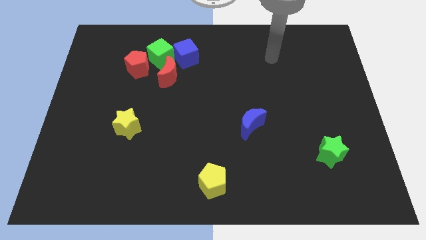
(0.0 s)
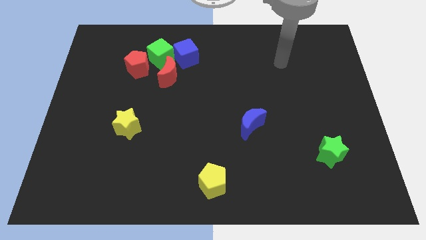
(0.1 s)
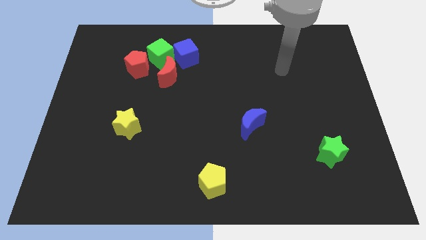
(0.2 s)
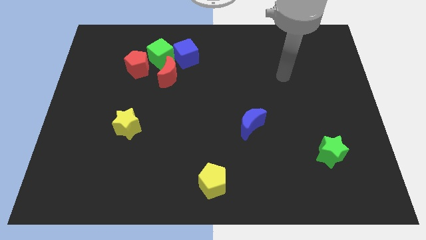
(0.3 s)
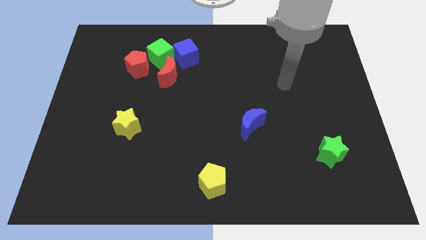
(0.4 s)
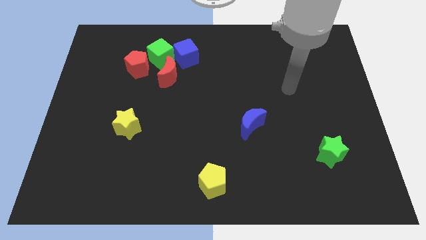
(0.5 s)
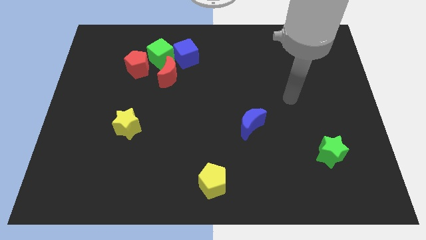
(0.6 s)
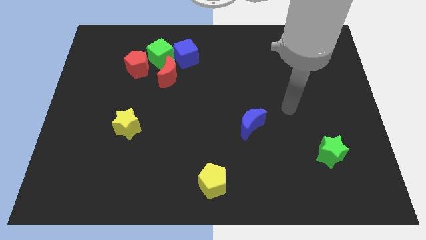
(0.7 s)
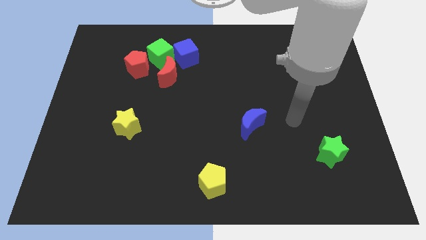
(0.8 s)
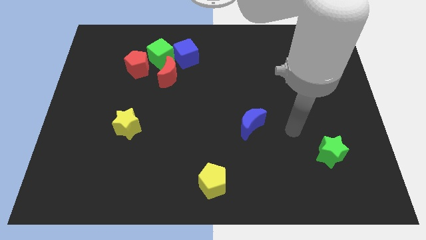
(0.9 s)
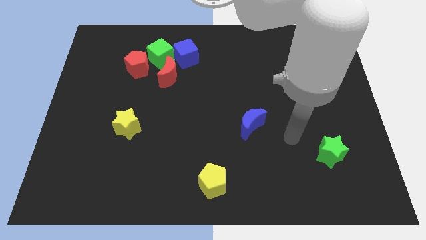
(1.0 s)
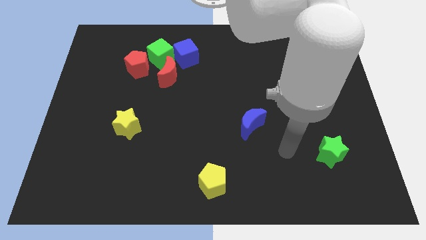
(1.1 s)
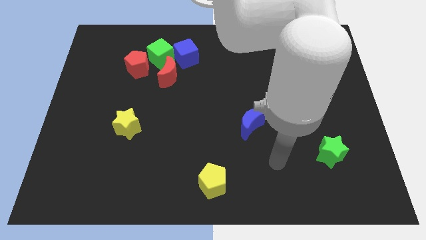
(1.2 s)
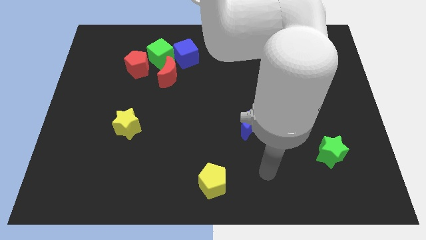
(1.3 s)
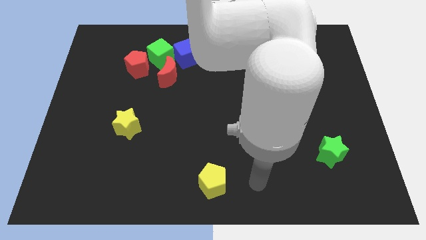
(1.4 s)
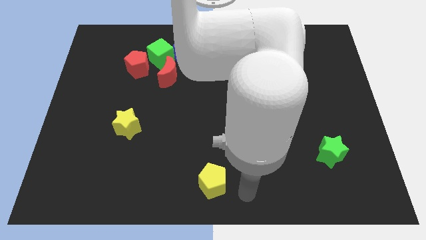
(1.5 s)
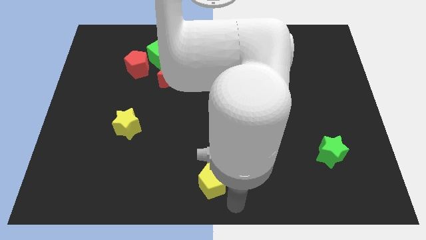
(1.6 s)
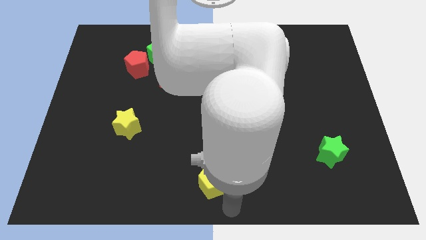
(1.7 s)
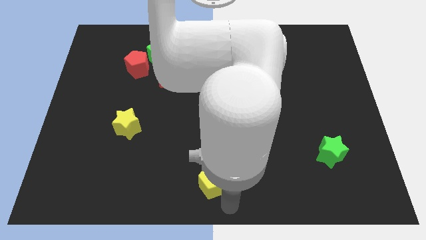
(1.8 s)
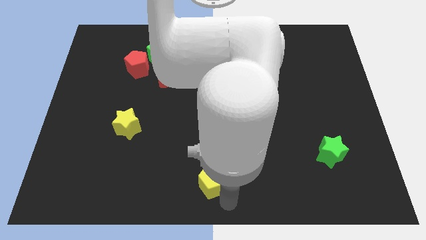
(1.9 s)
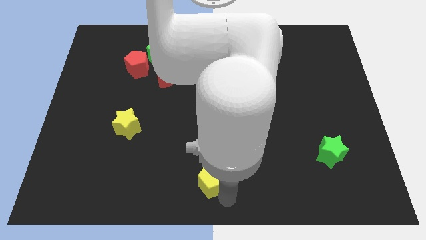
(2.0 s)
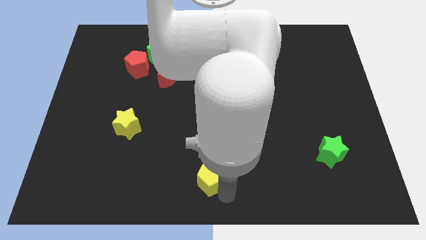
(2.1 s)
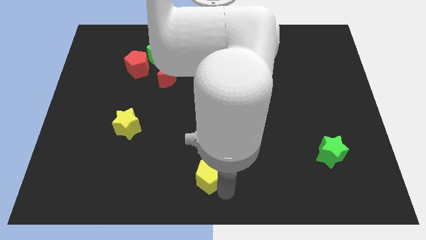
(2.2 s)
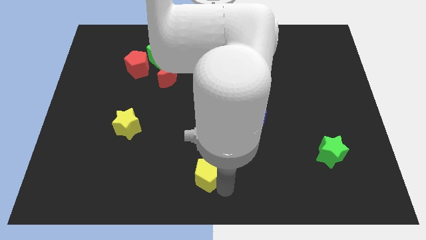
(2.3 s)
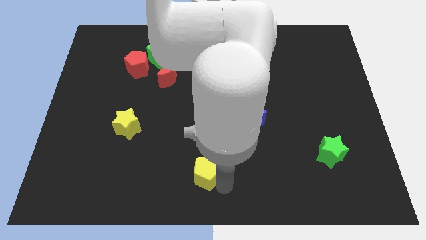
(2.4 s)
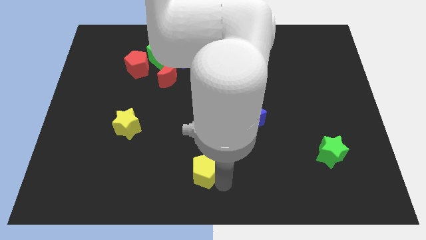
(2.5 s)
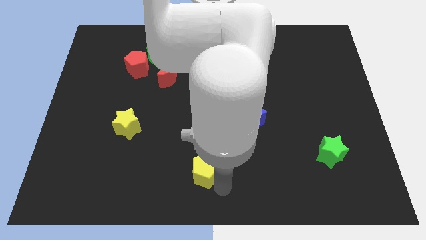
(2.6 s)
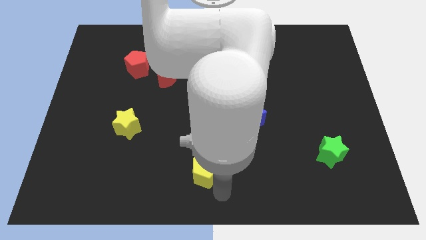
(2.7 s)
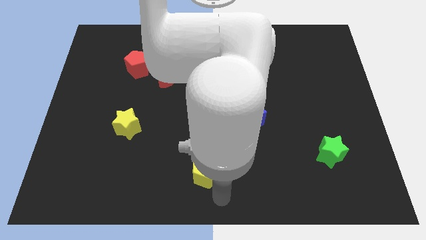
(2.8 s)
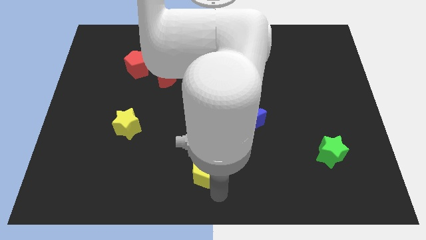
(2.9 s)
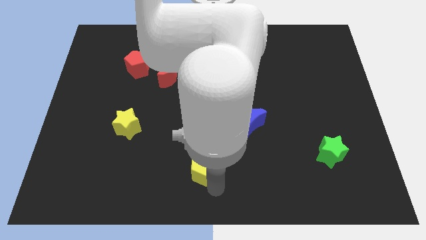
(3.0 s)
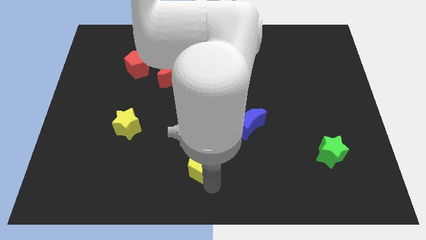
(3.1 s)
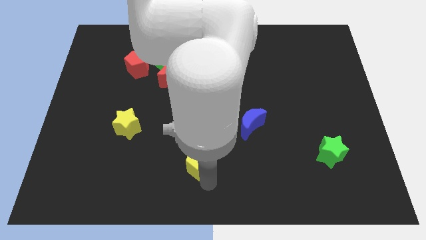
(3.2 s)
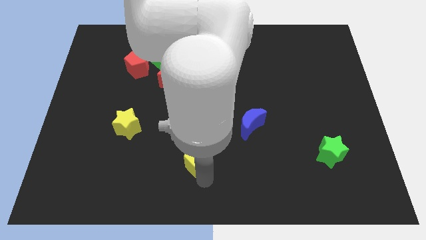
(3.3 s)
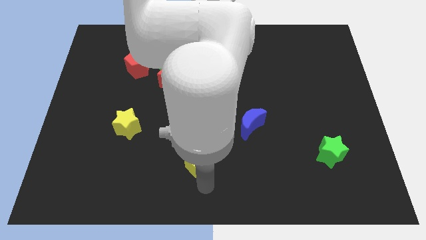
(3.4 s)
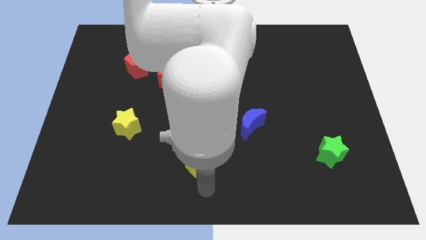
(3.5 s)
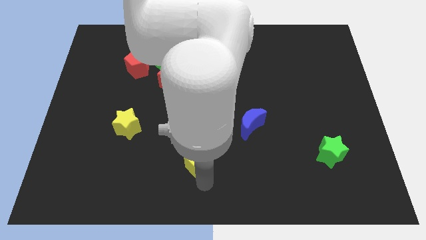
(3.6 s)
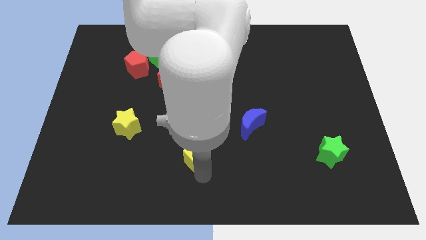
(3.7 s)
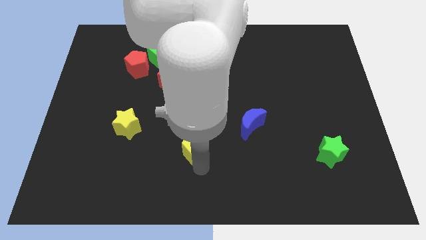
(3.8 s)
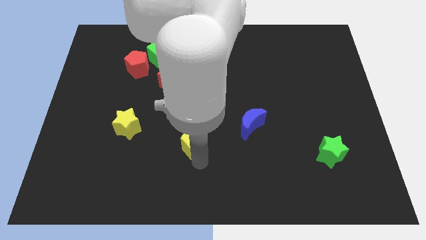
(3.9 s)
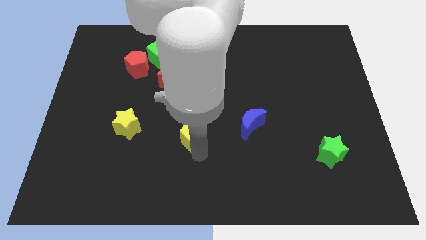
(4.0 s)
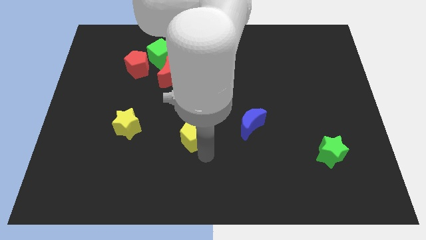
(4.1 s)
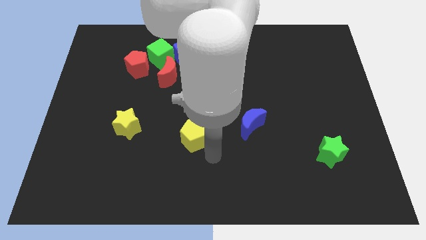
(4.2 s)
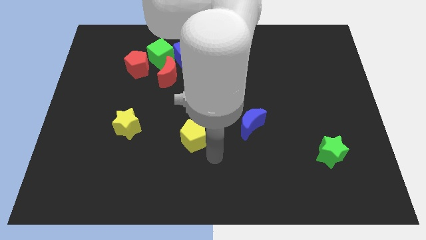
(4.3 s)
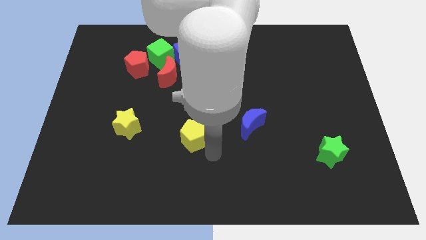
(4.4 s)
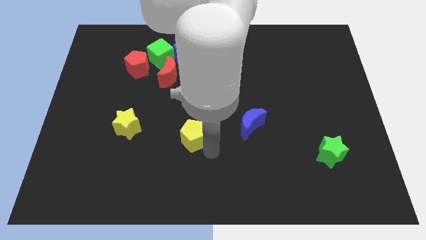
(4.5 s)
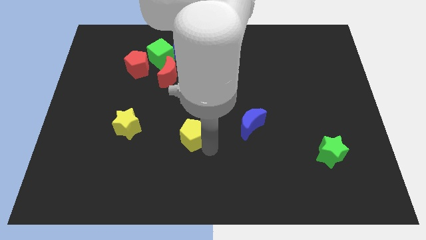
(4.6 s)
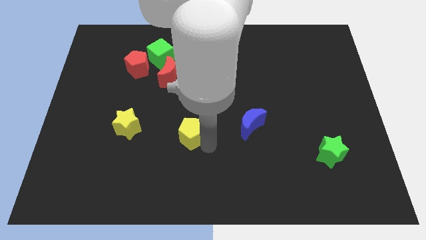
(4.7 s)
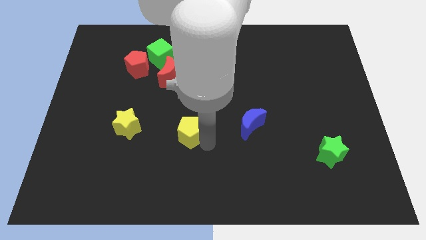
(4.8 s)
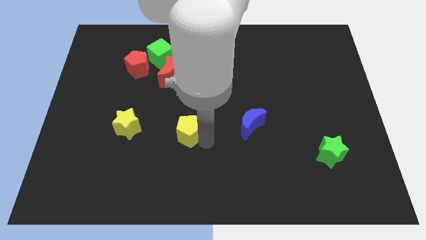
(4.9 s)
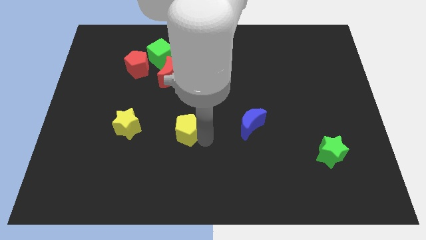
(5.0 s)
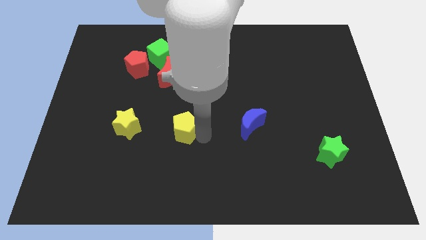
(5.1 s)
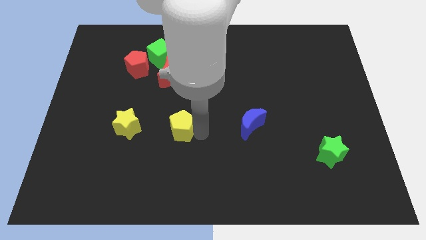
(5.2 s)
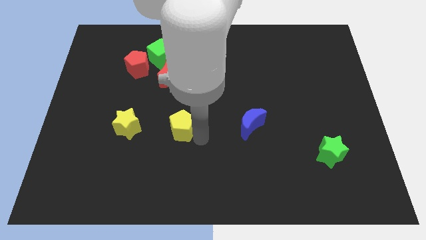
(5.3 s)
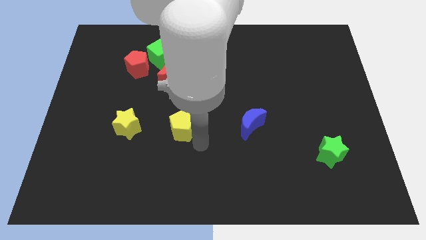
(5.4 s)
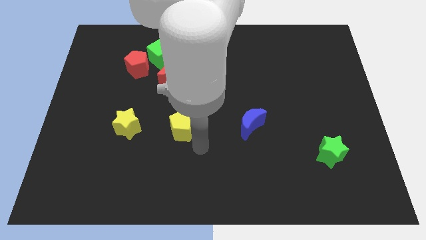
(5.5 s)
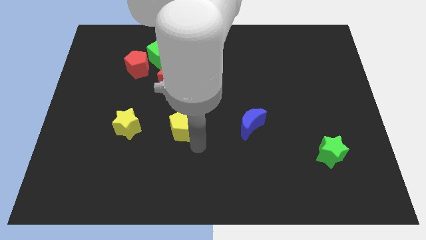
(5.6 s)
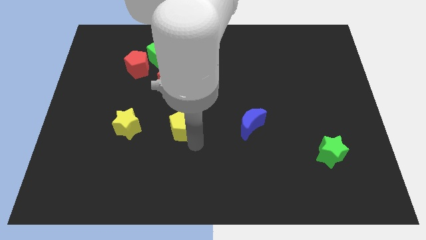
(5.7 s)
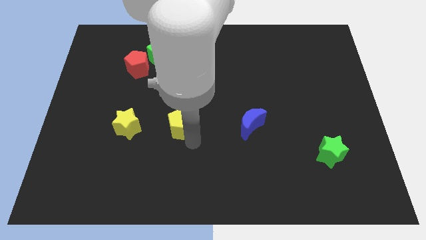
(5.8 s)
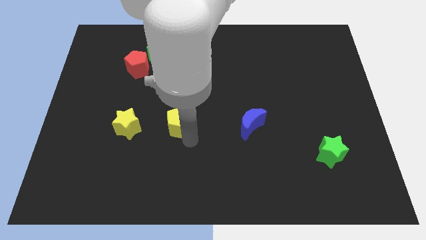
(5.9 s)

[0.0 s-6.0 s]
put the yellow pentagon to the bottom of the red moon
